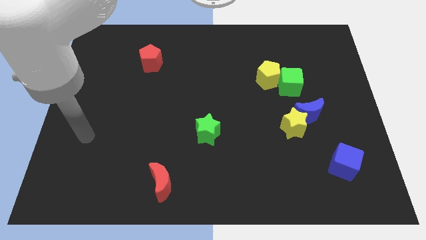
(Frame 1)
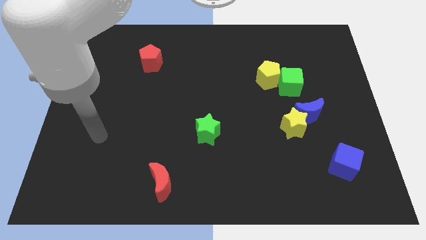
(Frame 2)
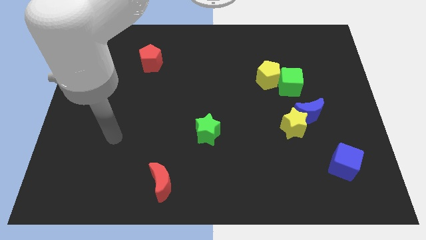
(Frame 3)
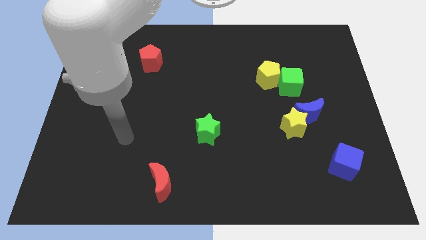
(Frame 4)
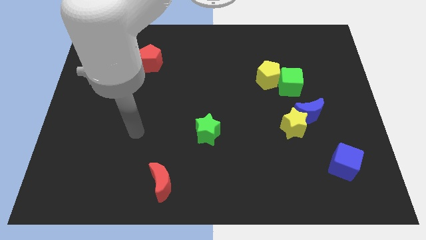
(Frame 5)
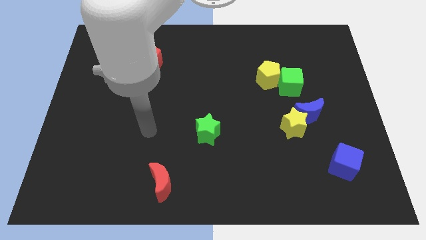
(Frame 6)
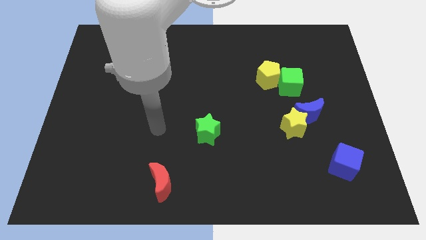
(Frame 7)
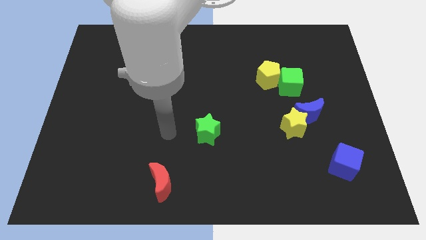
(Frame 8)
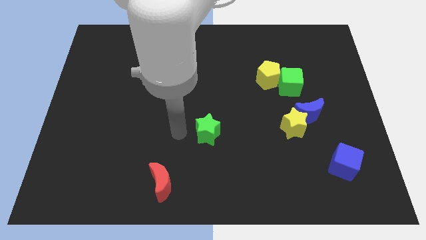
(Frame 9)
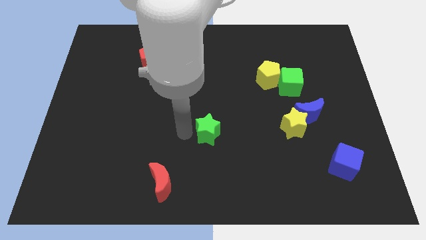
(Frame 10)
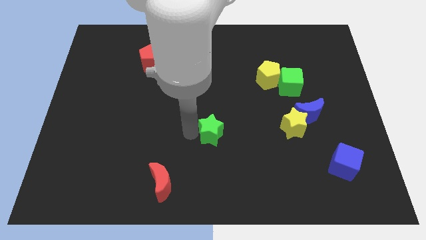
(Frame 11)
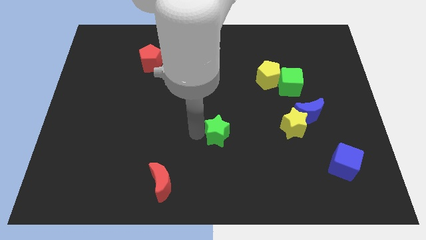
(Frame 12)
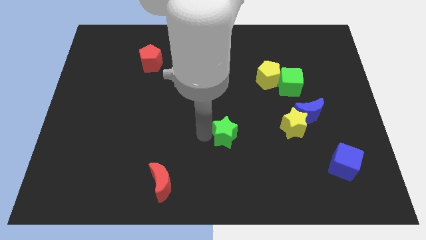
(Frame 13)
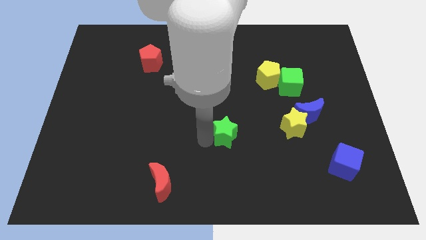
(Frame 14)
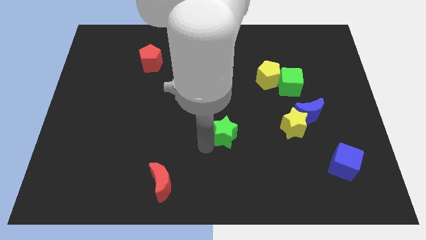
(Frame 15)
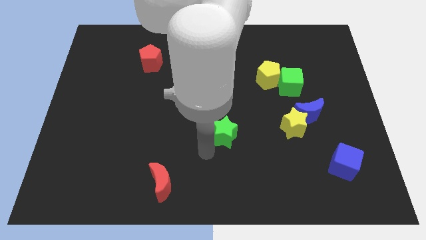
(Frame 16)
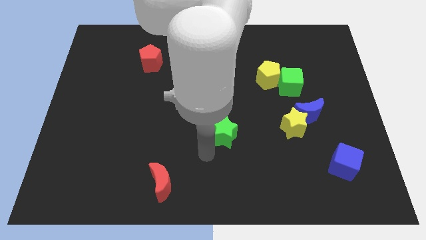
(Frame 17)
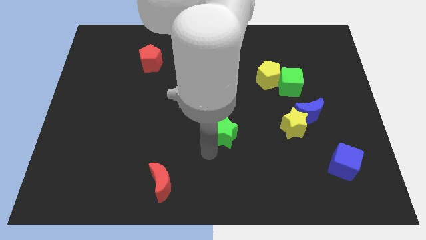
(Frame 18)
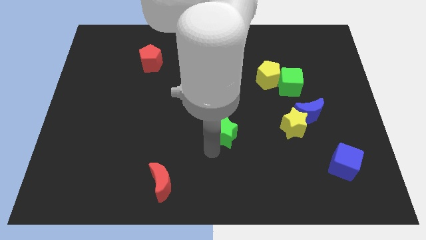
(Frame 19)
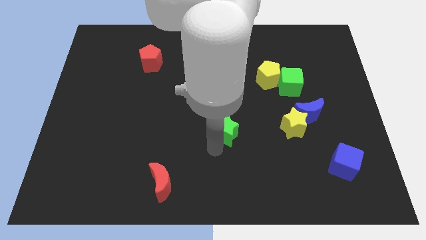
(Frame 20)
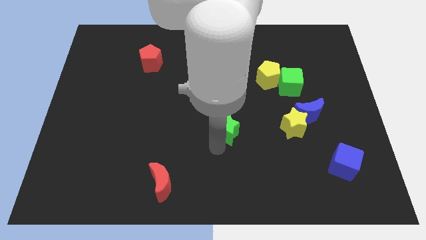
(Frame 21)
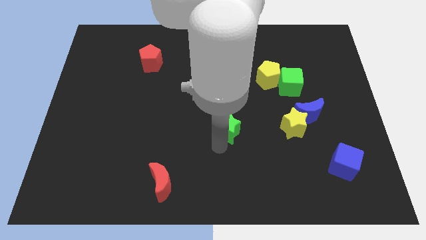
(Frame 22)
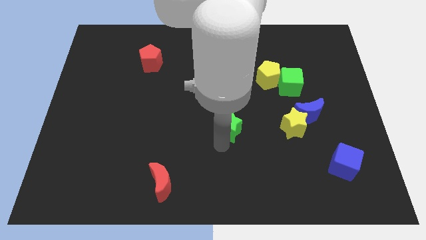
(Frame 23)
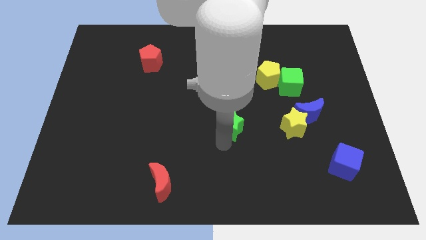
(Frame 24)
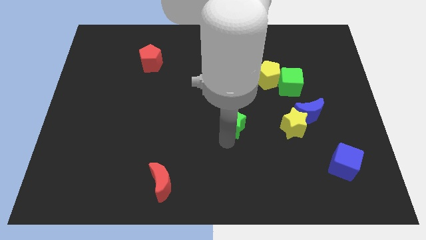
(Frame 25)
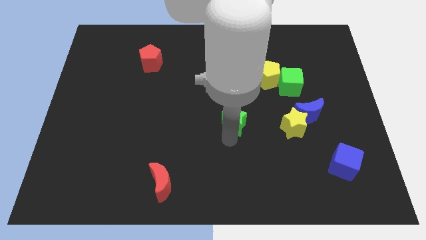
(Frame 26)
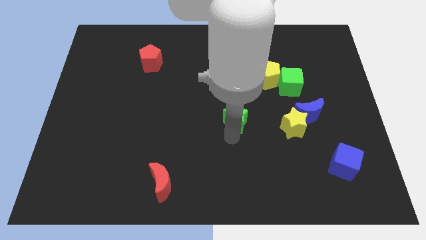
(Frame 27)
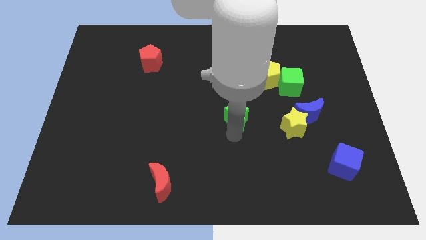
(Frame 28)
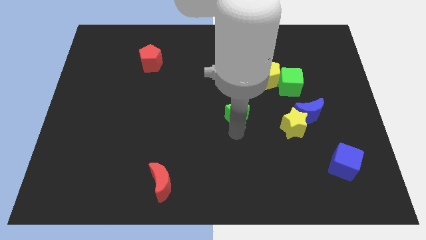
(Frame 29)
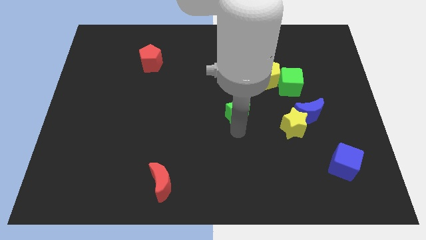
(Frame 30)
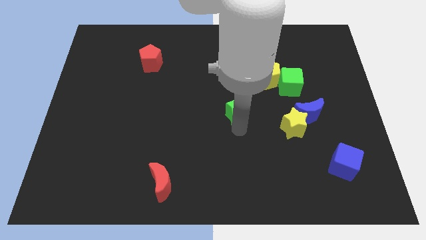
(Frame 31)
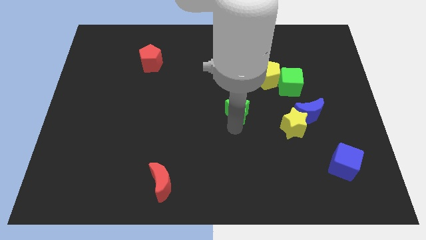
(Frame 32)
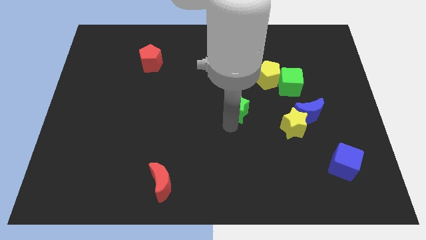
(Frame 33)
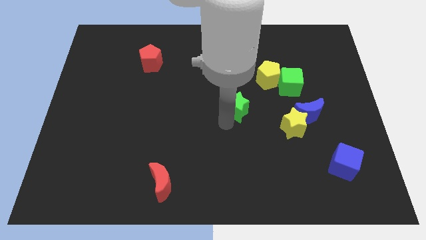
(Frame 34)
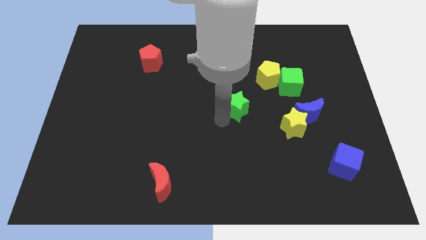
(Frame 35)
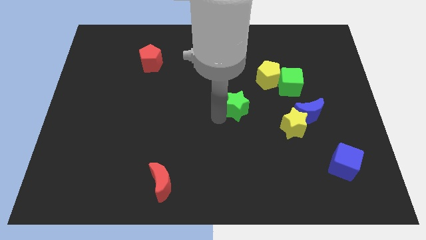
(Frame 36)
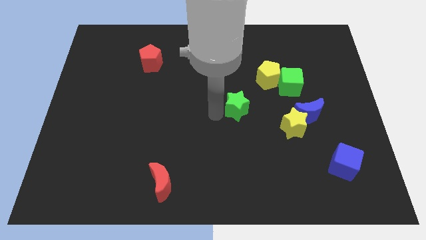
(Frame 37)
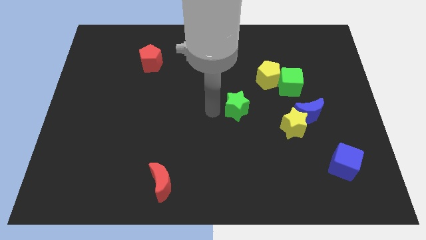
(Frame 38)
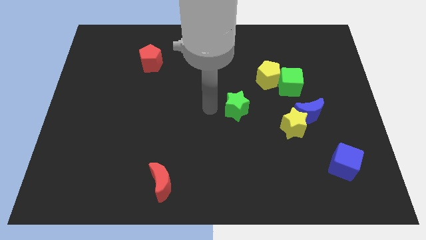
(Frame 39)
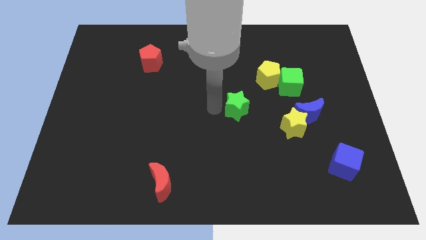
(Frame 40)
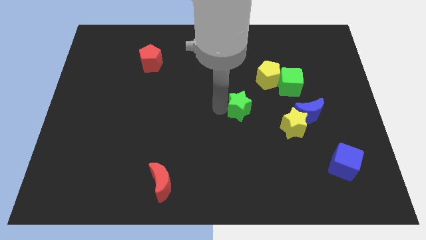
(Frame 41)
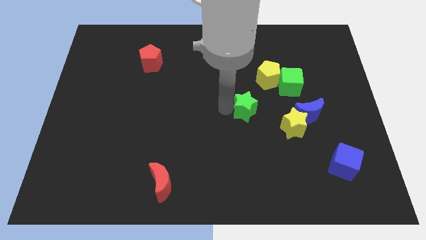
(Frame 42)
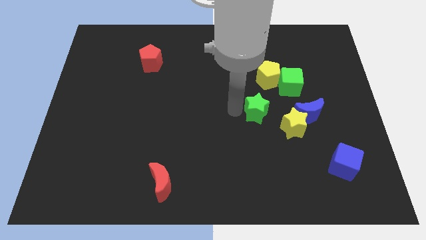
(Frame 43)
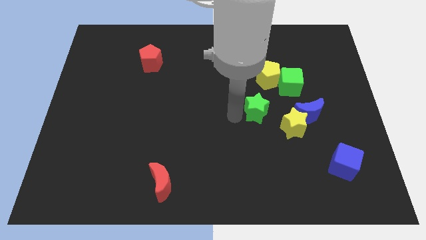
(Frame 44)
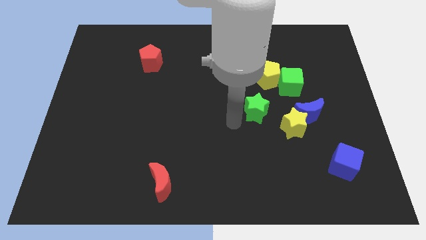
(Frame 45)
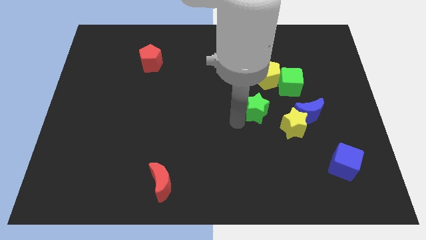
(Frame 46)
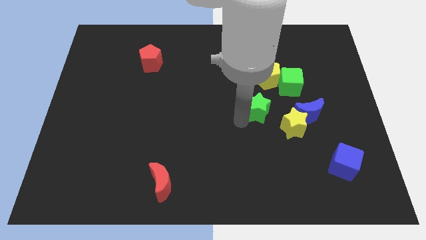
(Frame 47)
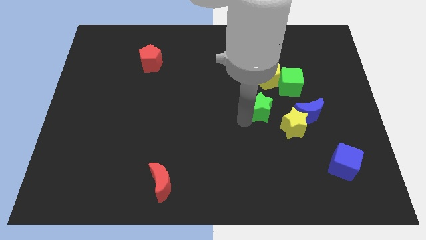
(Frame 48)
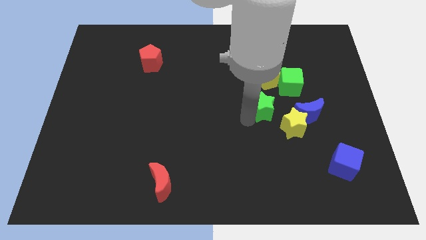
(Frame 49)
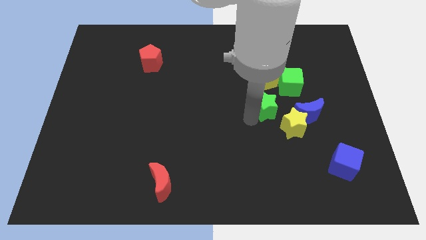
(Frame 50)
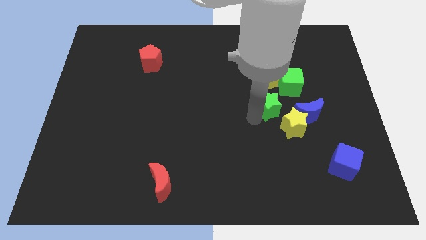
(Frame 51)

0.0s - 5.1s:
move the green star to the top left side of the blue moon

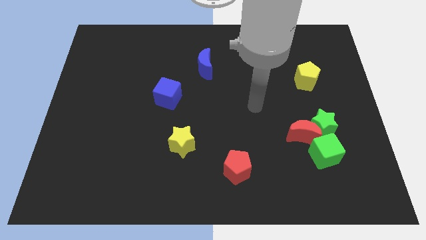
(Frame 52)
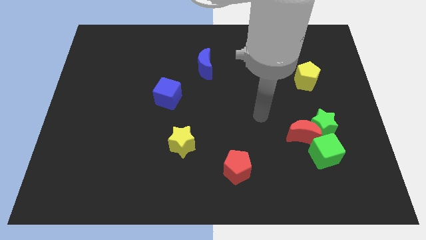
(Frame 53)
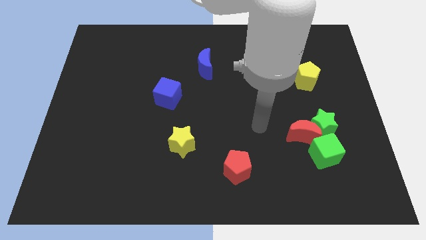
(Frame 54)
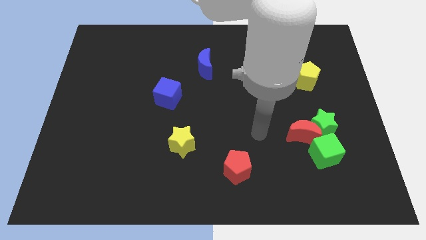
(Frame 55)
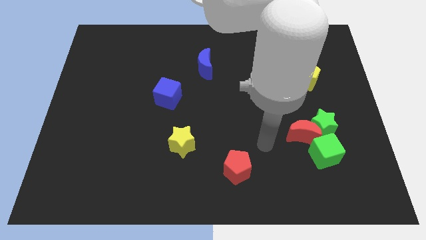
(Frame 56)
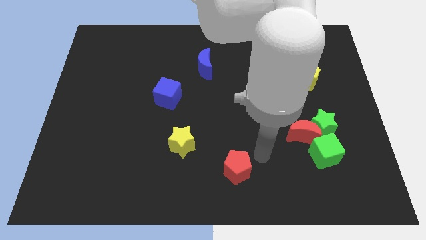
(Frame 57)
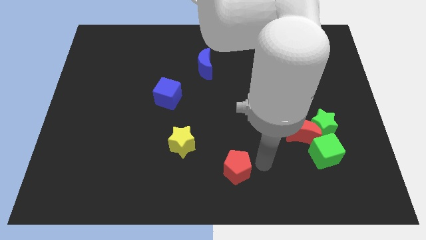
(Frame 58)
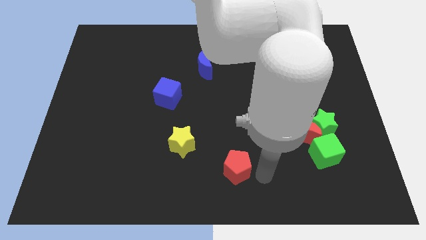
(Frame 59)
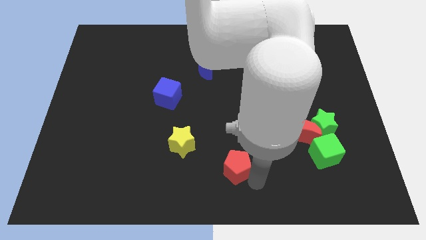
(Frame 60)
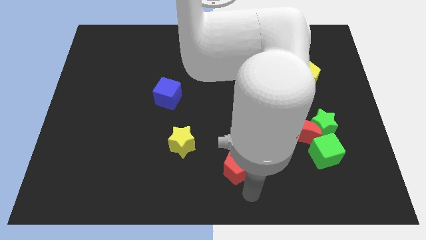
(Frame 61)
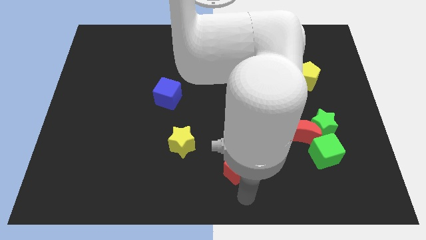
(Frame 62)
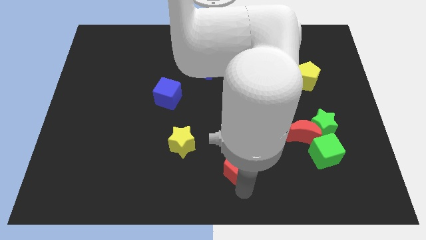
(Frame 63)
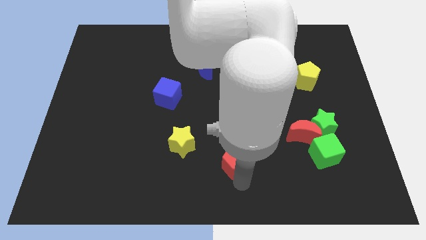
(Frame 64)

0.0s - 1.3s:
move the red pentagon right of the yellow star
